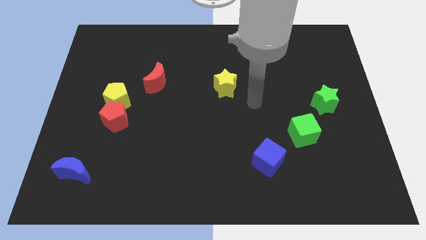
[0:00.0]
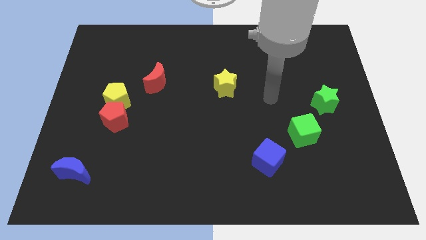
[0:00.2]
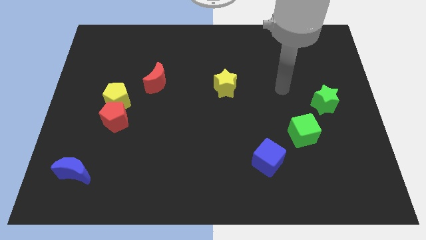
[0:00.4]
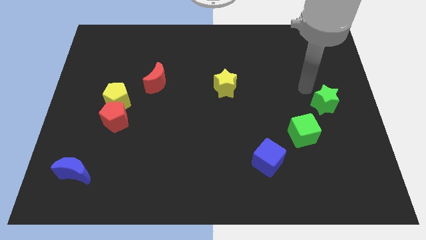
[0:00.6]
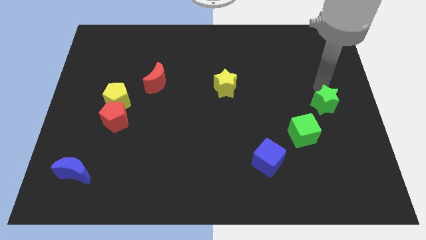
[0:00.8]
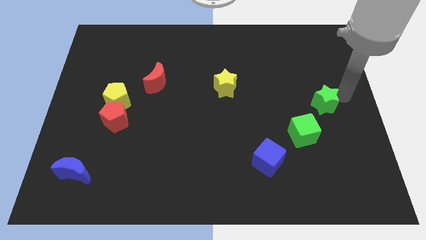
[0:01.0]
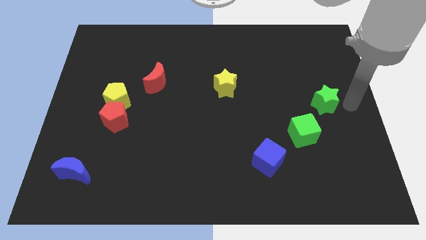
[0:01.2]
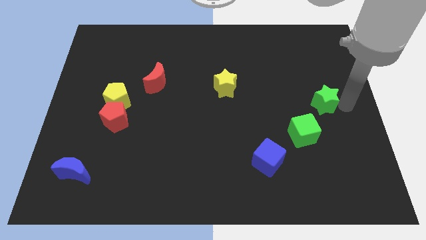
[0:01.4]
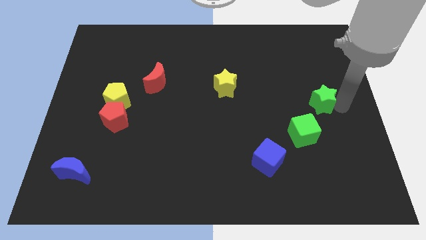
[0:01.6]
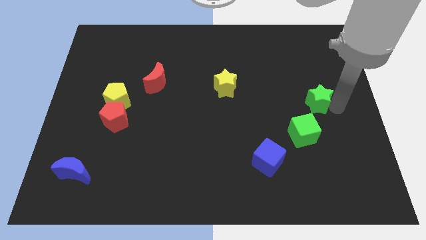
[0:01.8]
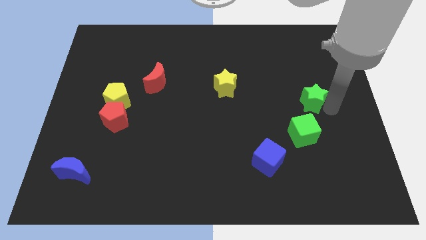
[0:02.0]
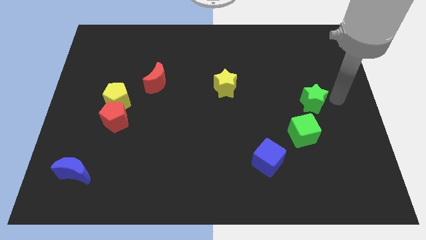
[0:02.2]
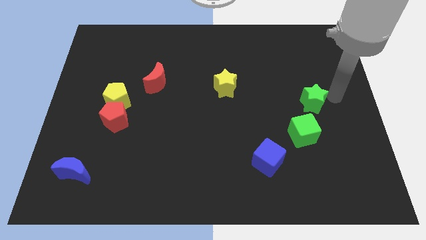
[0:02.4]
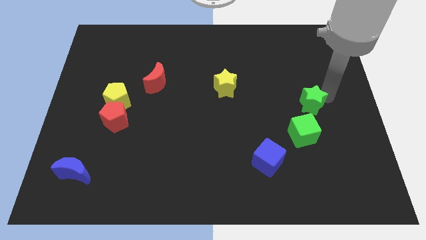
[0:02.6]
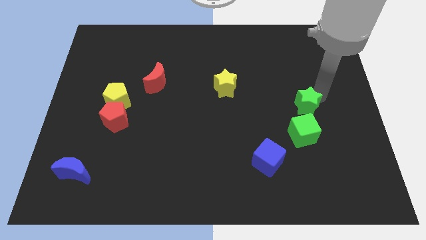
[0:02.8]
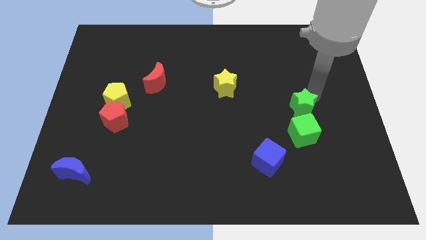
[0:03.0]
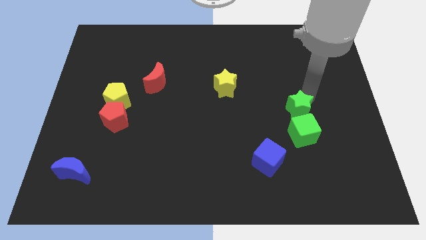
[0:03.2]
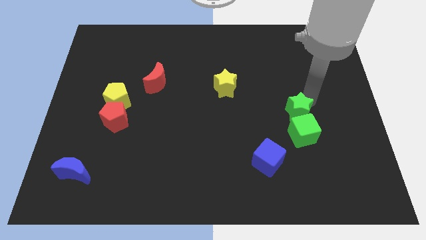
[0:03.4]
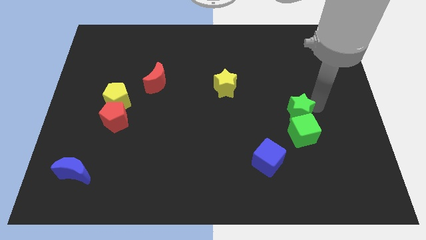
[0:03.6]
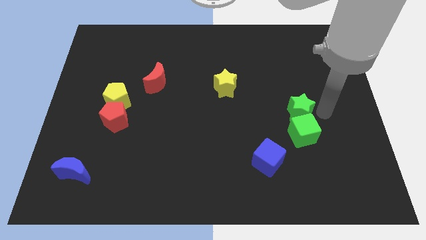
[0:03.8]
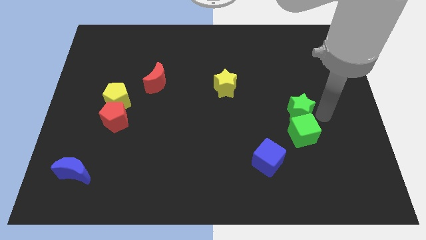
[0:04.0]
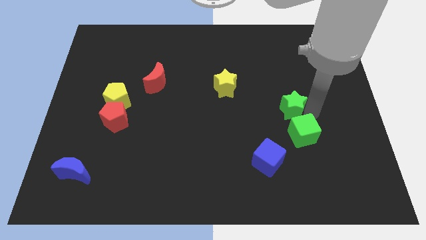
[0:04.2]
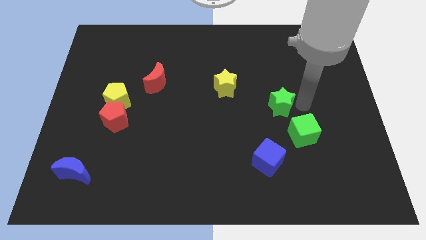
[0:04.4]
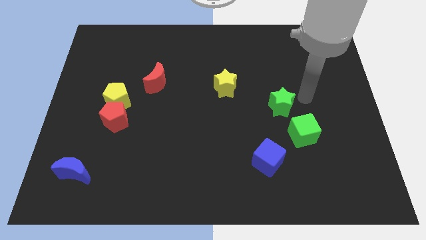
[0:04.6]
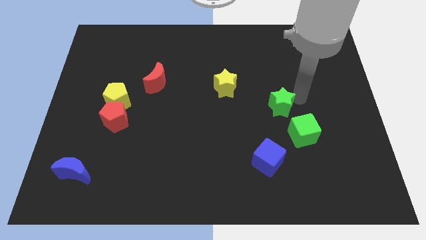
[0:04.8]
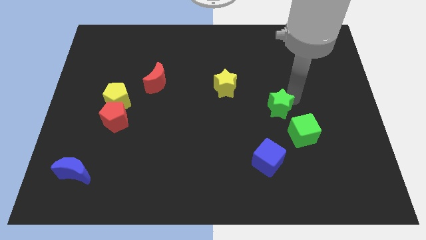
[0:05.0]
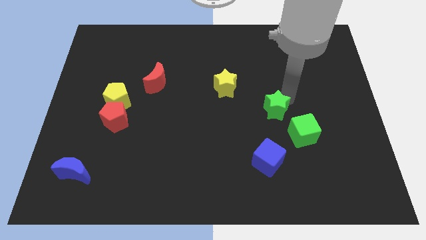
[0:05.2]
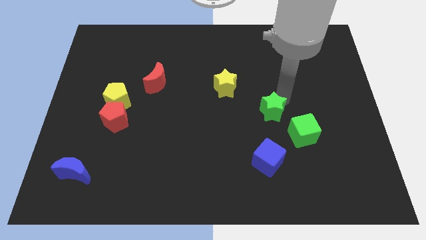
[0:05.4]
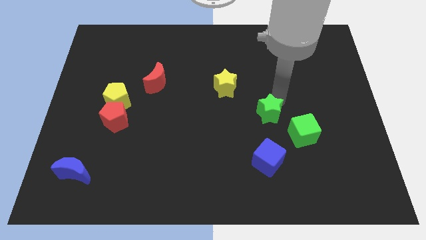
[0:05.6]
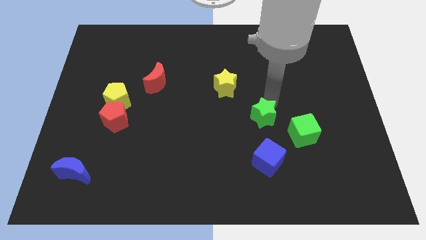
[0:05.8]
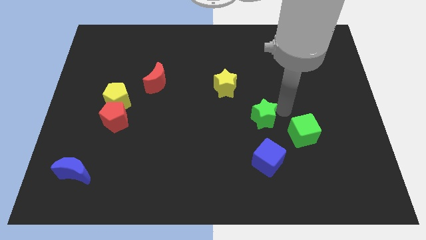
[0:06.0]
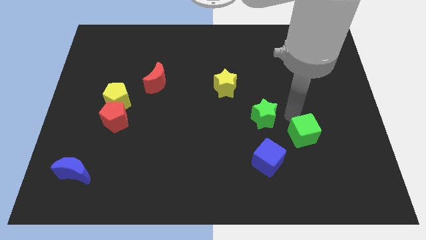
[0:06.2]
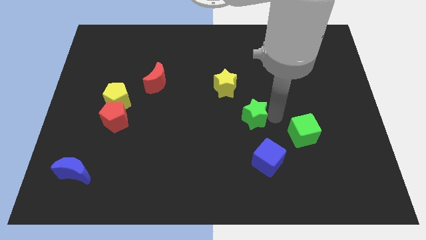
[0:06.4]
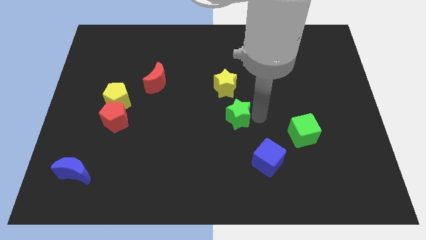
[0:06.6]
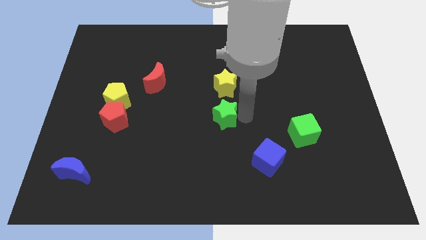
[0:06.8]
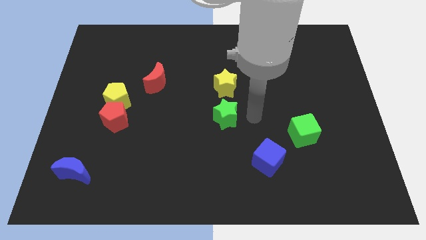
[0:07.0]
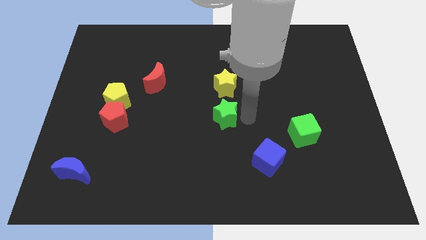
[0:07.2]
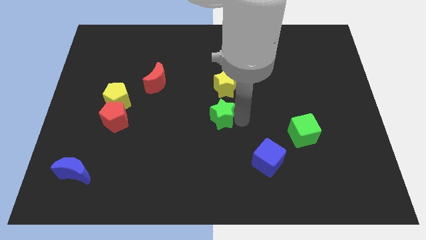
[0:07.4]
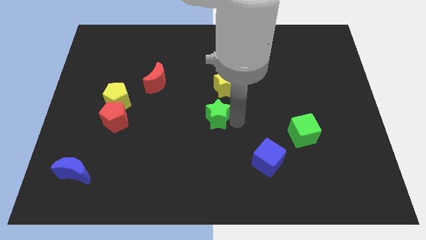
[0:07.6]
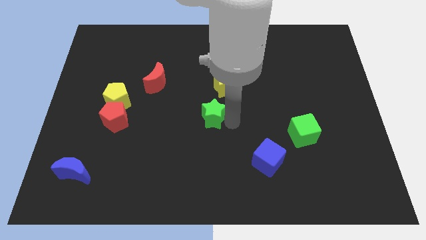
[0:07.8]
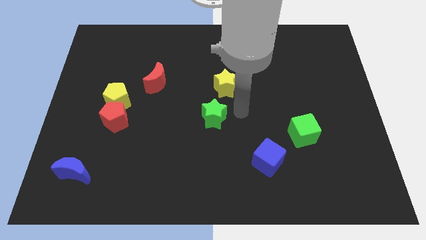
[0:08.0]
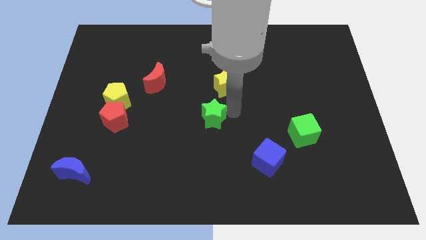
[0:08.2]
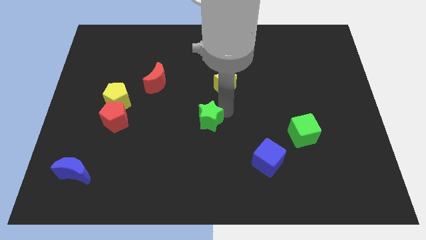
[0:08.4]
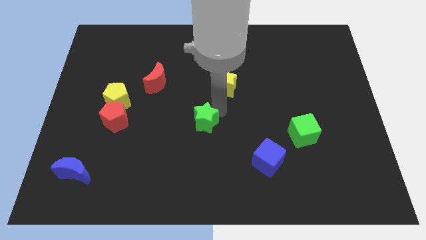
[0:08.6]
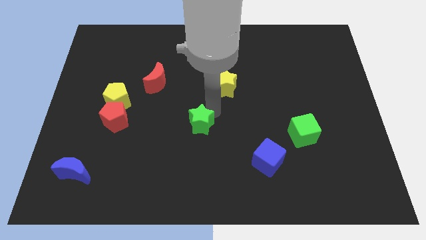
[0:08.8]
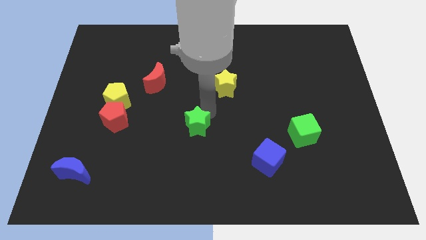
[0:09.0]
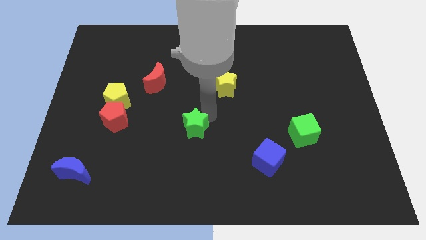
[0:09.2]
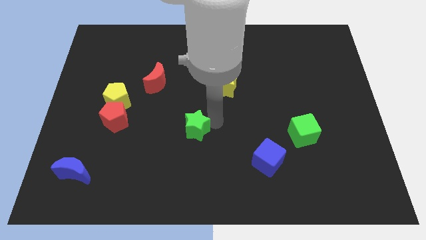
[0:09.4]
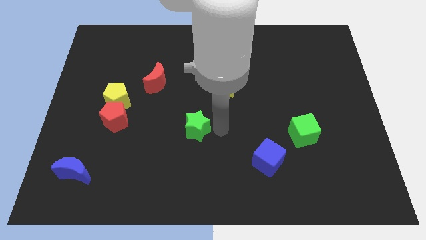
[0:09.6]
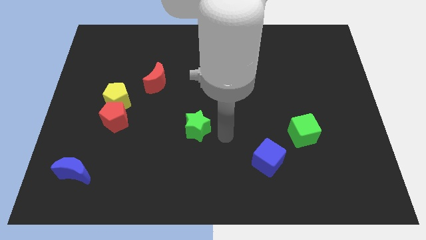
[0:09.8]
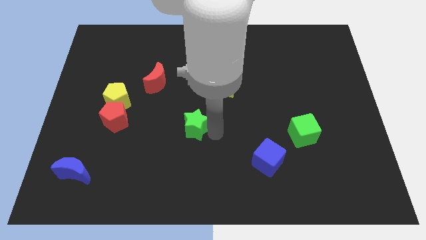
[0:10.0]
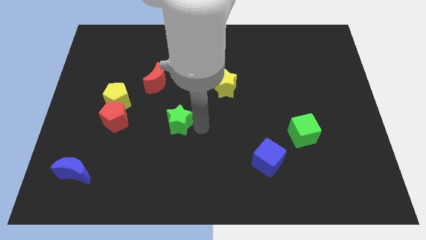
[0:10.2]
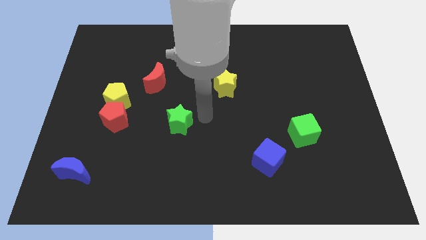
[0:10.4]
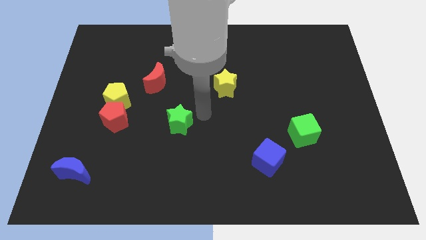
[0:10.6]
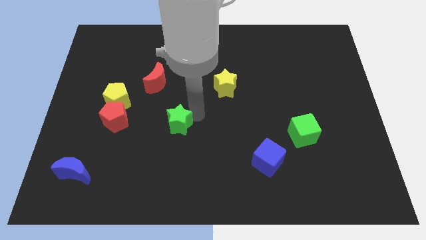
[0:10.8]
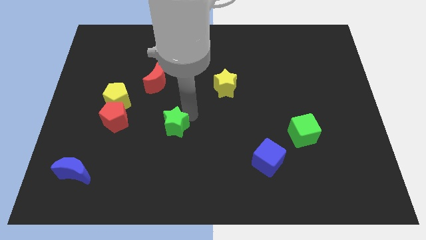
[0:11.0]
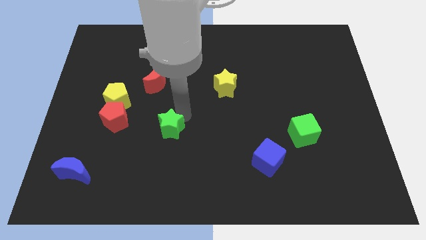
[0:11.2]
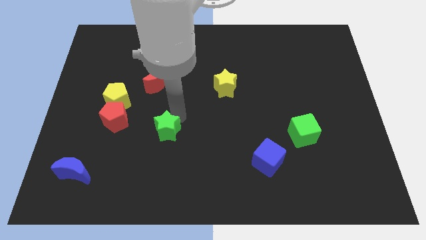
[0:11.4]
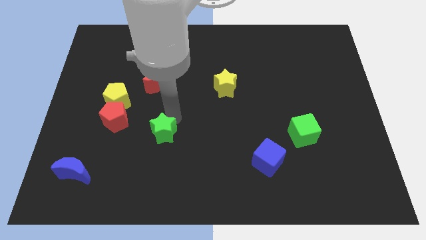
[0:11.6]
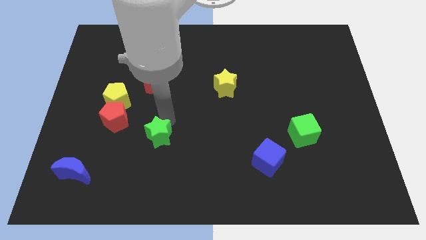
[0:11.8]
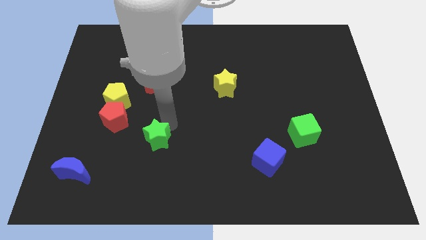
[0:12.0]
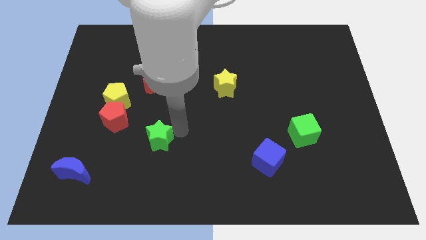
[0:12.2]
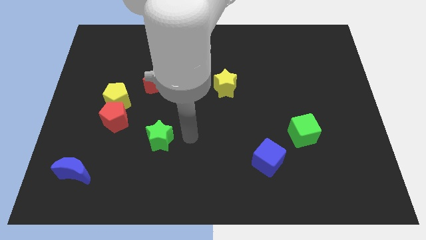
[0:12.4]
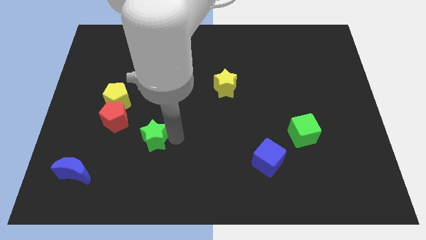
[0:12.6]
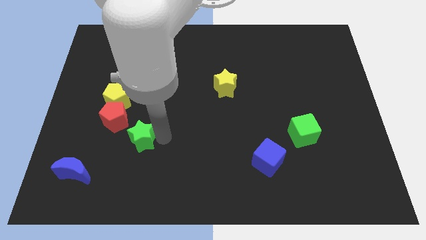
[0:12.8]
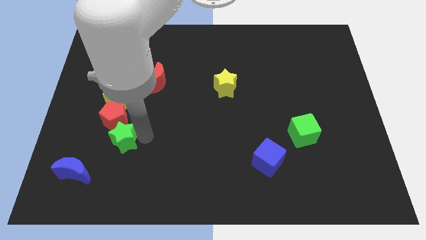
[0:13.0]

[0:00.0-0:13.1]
move the green star to the top right side of the blue moon

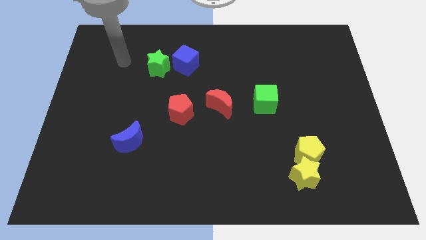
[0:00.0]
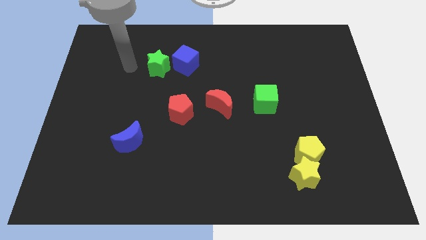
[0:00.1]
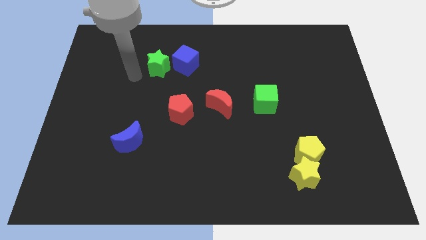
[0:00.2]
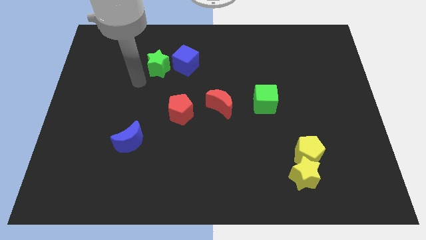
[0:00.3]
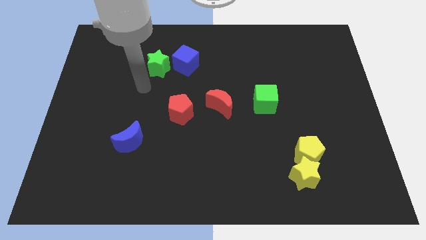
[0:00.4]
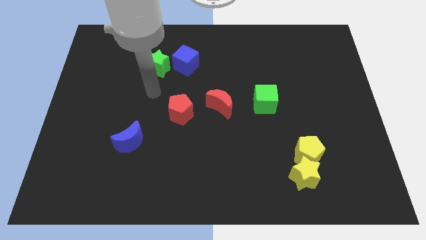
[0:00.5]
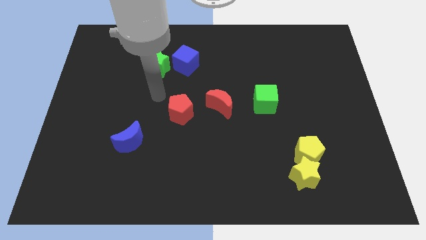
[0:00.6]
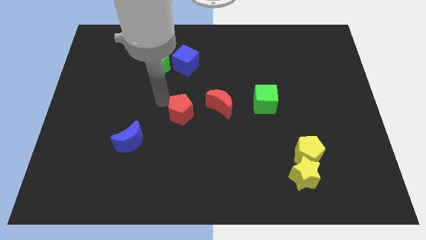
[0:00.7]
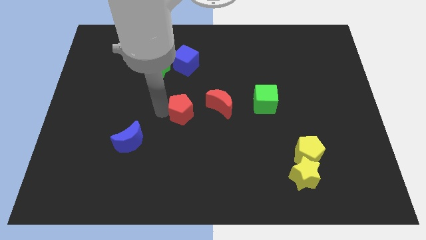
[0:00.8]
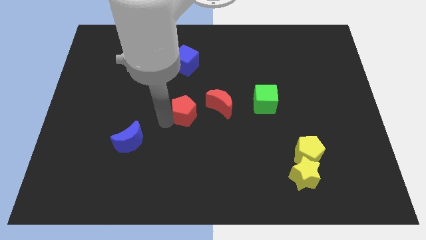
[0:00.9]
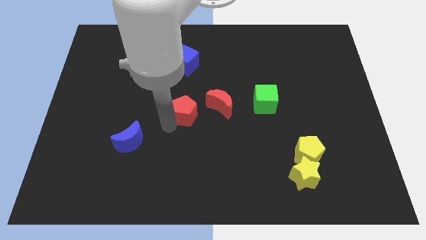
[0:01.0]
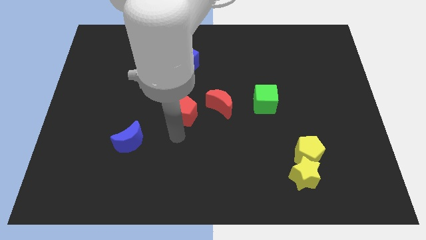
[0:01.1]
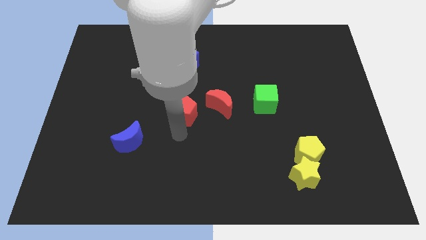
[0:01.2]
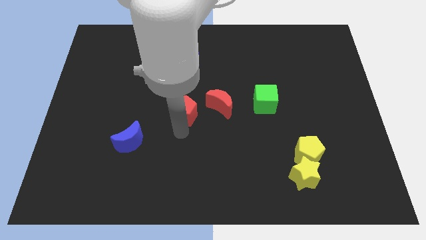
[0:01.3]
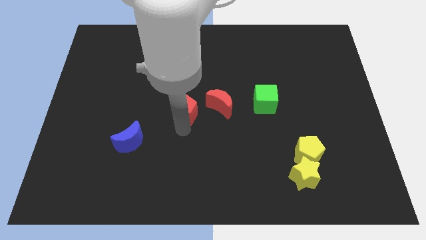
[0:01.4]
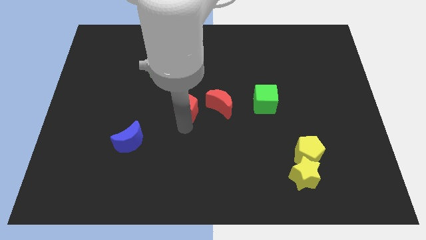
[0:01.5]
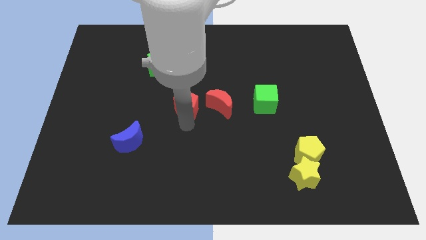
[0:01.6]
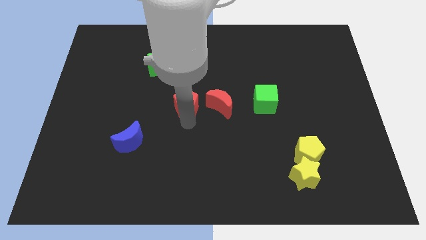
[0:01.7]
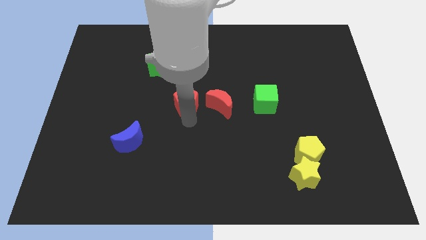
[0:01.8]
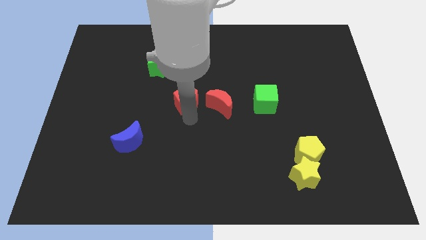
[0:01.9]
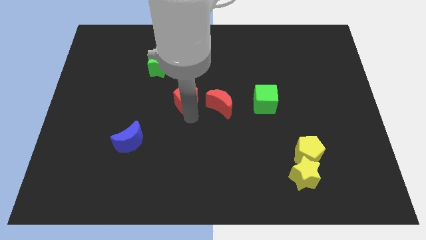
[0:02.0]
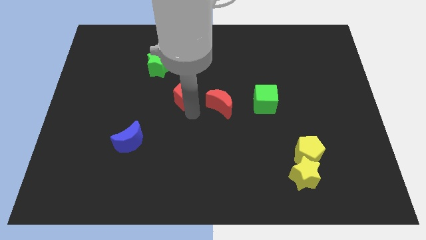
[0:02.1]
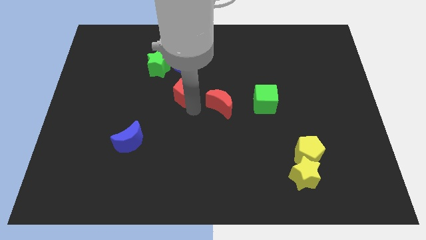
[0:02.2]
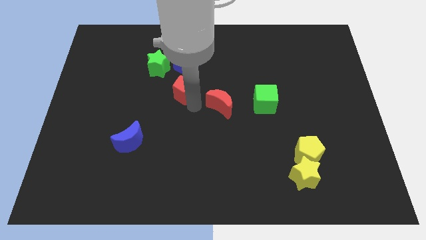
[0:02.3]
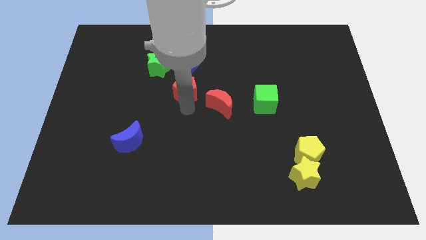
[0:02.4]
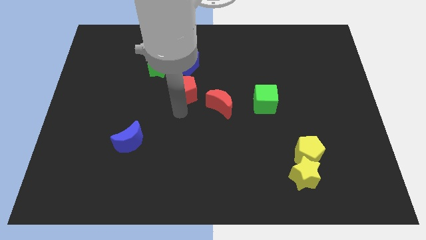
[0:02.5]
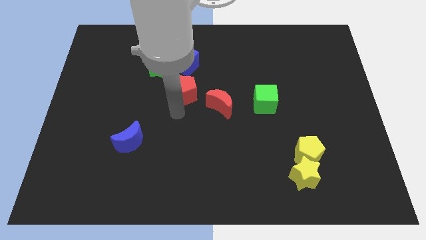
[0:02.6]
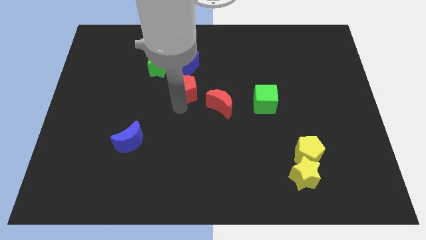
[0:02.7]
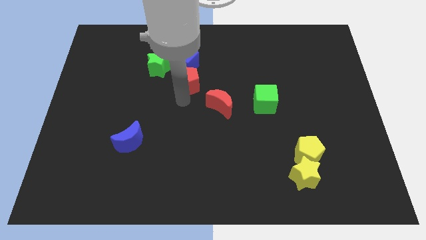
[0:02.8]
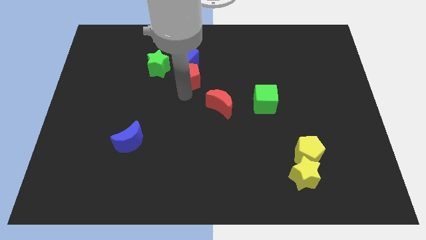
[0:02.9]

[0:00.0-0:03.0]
move the red pentagon to the right of the green star
